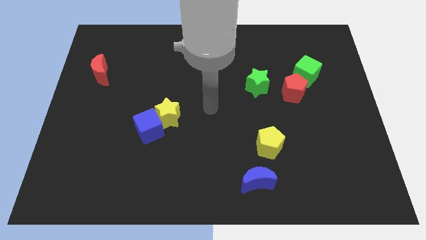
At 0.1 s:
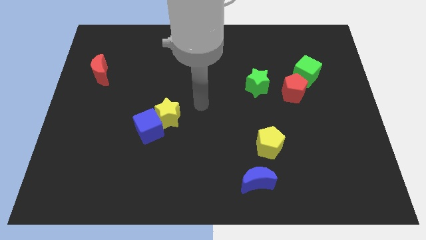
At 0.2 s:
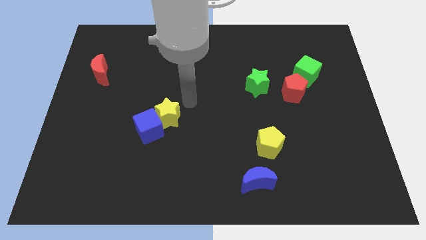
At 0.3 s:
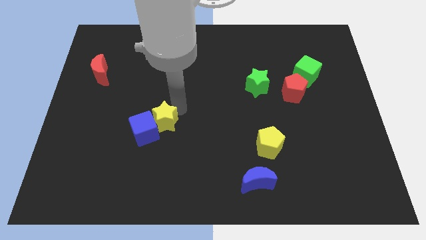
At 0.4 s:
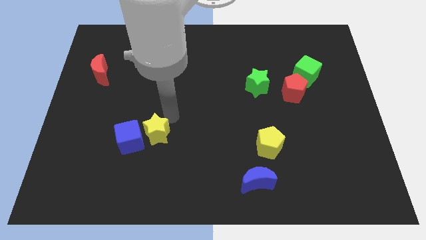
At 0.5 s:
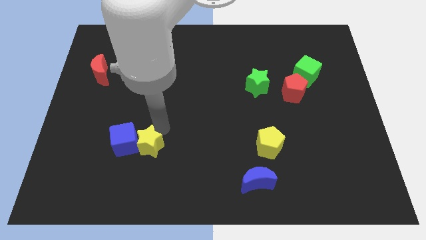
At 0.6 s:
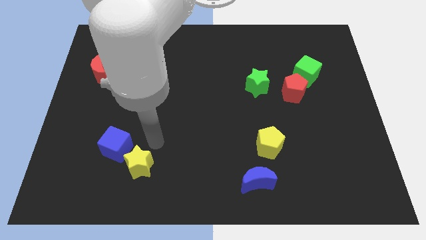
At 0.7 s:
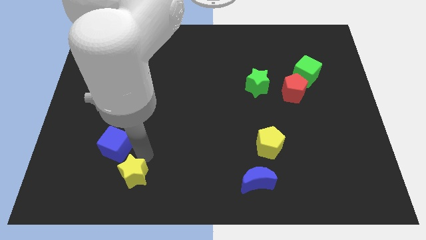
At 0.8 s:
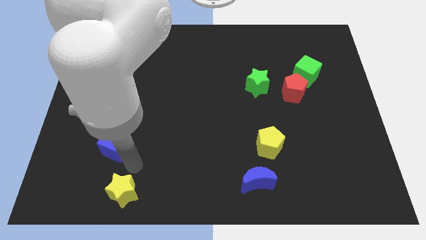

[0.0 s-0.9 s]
pull the blue cube apart from the yellow star

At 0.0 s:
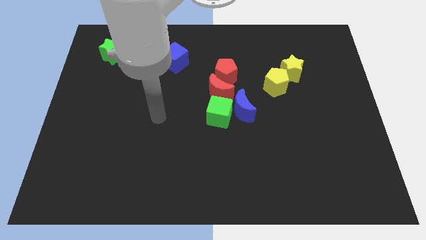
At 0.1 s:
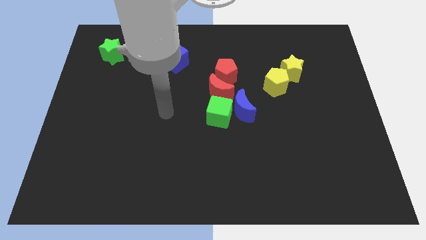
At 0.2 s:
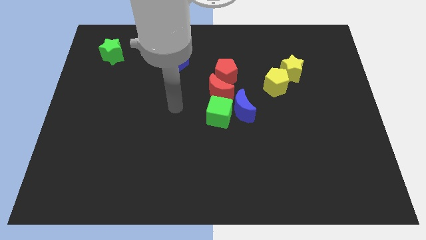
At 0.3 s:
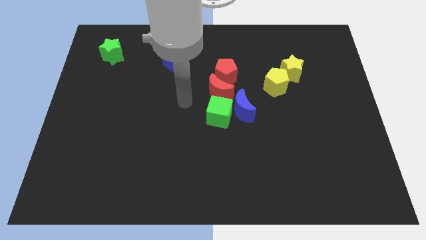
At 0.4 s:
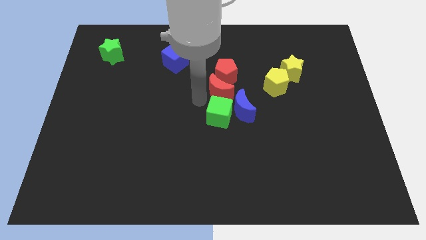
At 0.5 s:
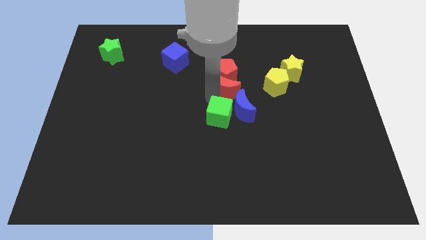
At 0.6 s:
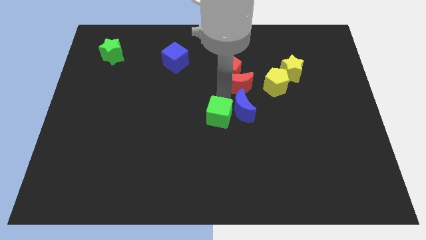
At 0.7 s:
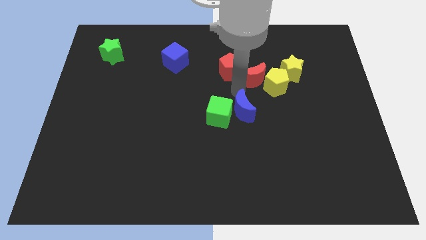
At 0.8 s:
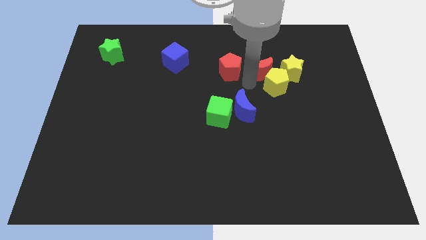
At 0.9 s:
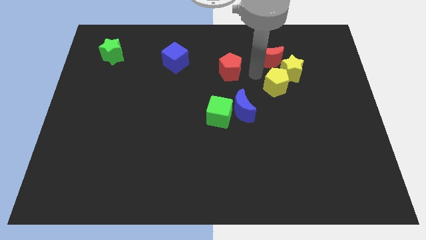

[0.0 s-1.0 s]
pull the red pentagon apart from the red moon

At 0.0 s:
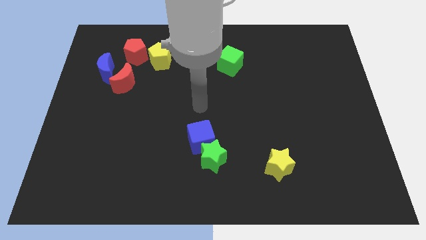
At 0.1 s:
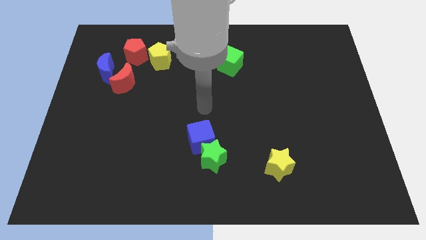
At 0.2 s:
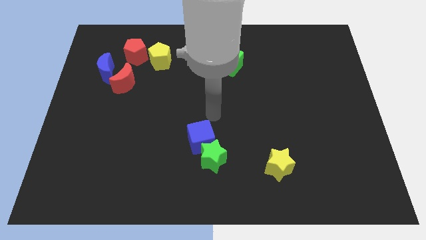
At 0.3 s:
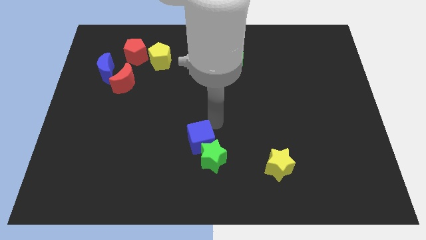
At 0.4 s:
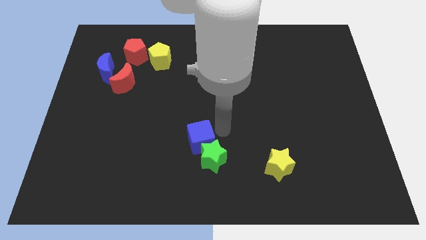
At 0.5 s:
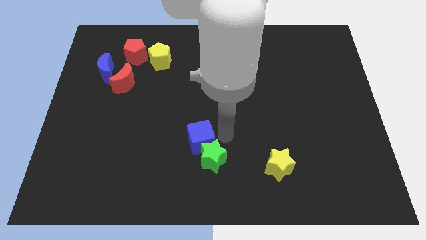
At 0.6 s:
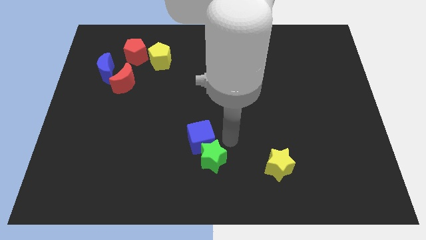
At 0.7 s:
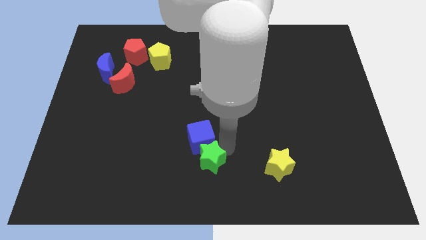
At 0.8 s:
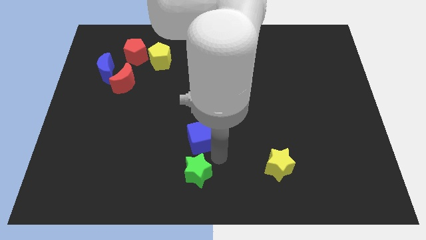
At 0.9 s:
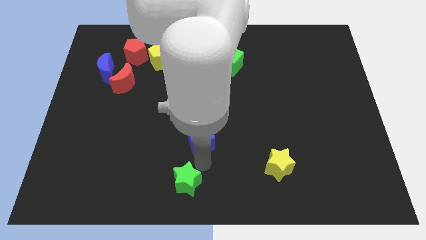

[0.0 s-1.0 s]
move the blue cube away from the green star

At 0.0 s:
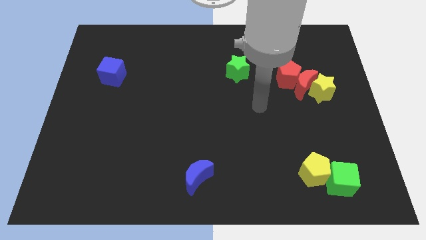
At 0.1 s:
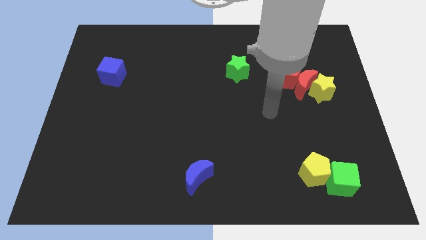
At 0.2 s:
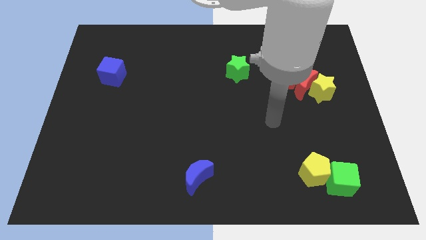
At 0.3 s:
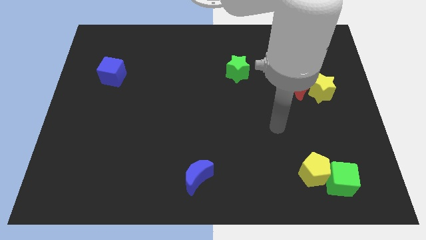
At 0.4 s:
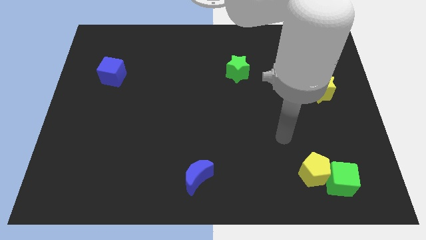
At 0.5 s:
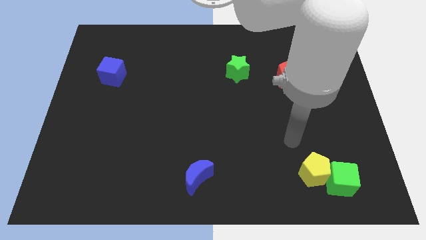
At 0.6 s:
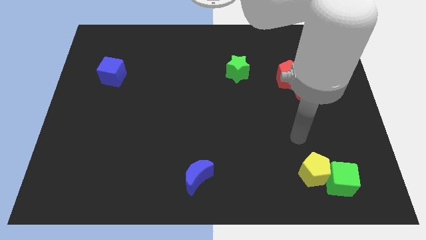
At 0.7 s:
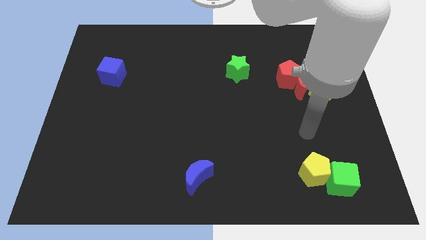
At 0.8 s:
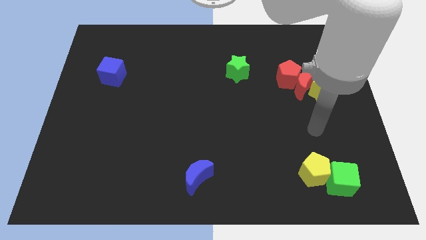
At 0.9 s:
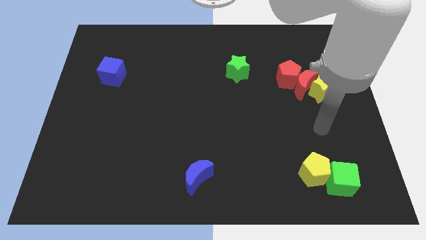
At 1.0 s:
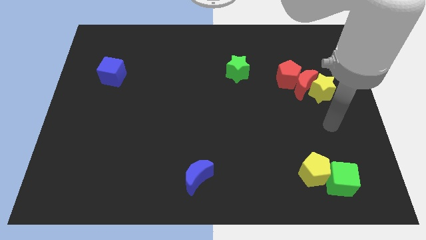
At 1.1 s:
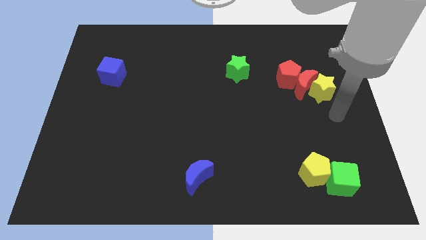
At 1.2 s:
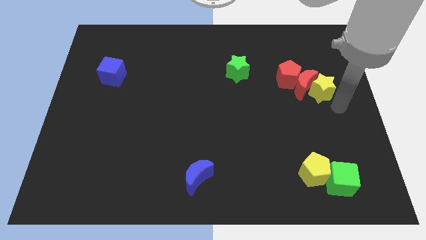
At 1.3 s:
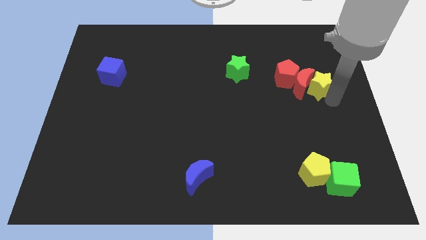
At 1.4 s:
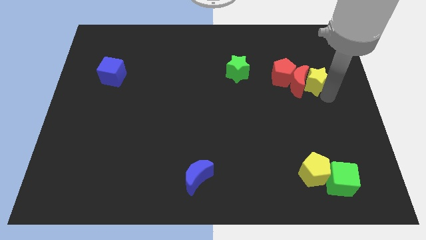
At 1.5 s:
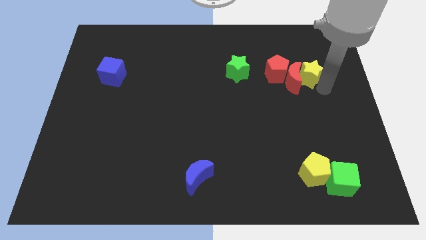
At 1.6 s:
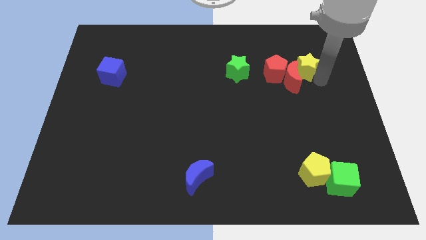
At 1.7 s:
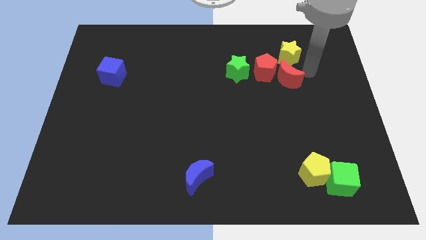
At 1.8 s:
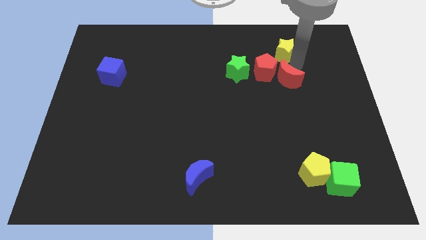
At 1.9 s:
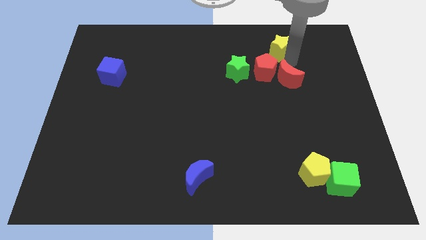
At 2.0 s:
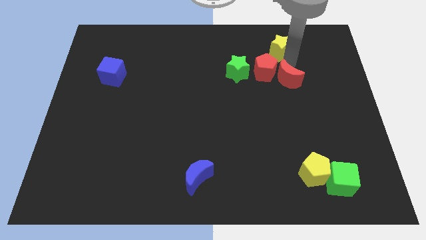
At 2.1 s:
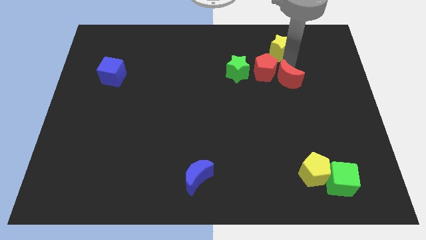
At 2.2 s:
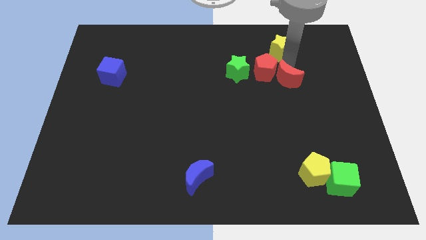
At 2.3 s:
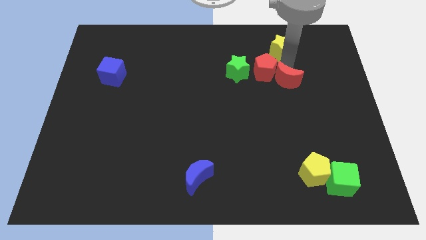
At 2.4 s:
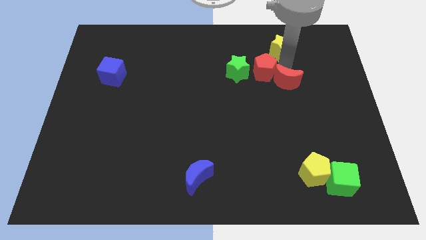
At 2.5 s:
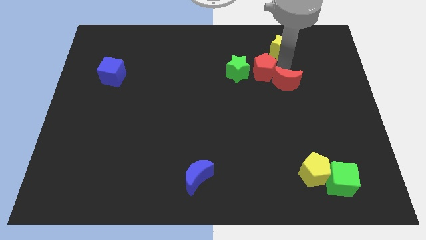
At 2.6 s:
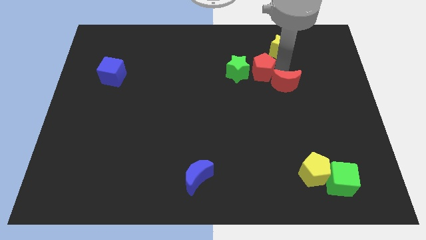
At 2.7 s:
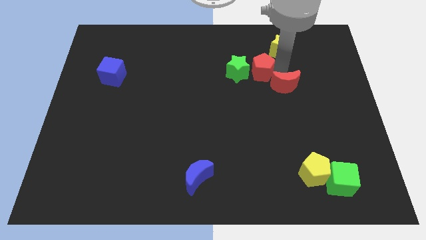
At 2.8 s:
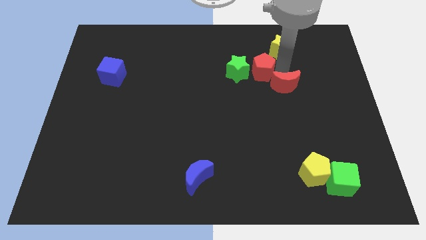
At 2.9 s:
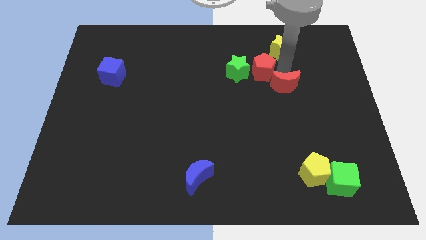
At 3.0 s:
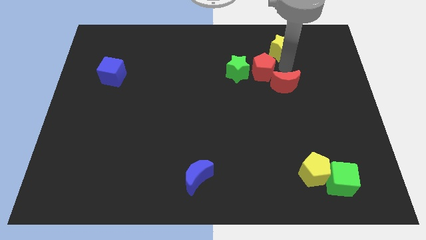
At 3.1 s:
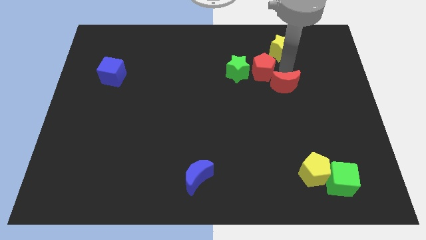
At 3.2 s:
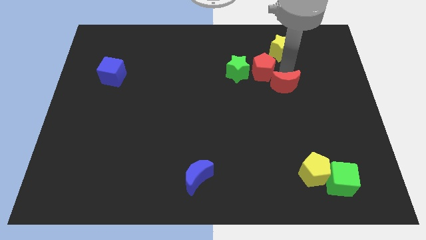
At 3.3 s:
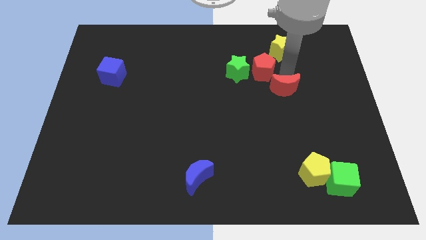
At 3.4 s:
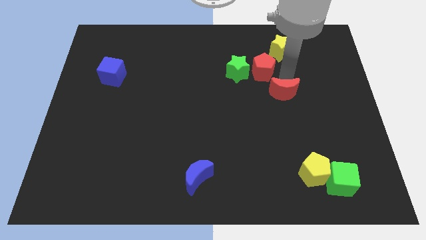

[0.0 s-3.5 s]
separate the red moon from the red pentagon and yellow star

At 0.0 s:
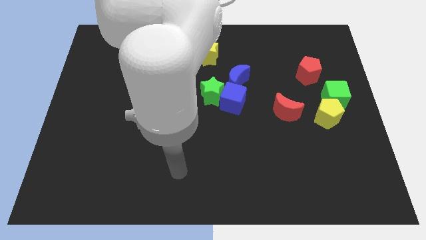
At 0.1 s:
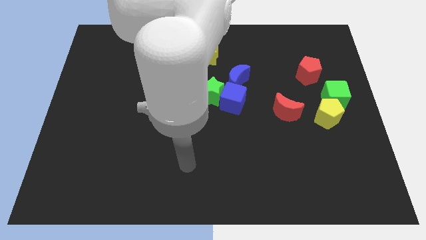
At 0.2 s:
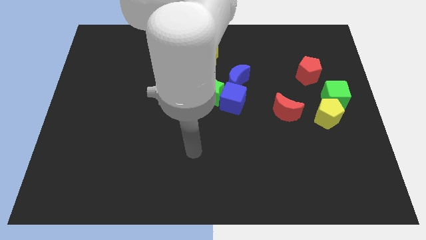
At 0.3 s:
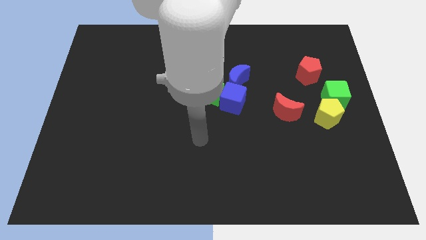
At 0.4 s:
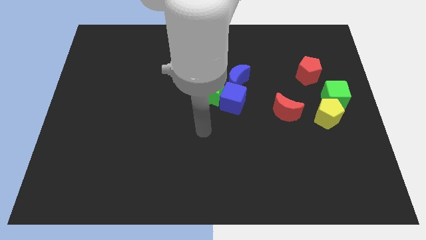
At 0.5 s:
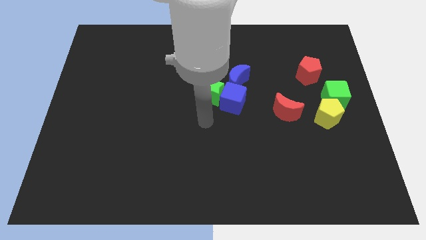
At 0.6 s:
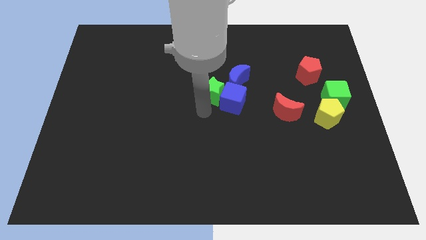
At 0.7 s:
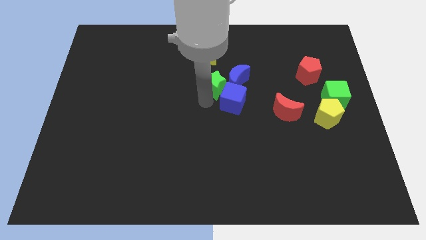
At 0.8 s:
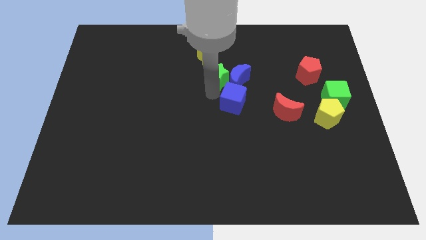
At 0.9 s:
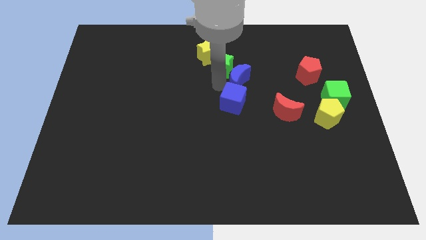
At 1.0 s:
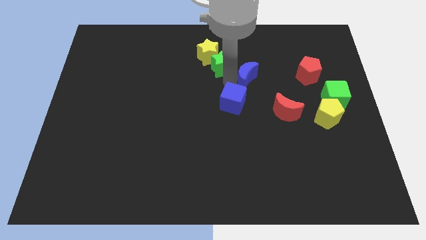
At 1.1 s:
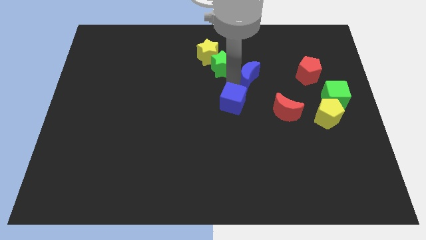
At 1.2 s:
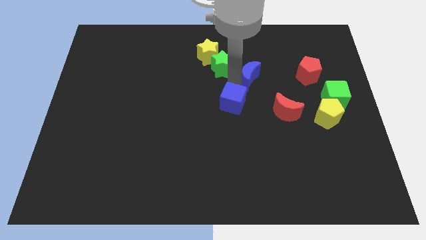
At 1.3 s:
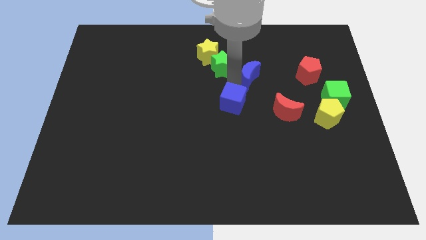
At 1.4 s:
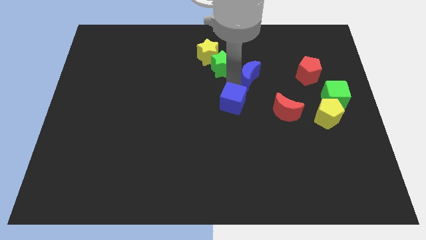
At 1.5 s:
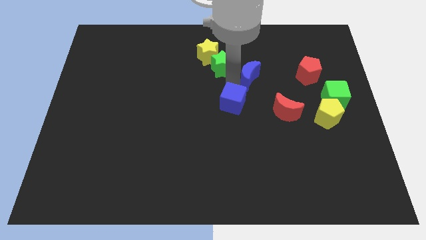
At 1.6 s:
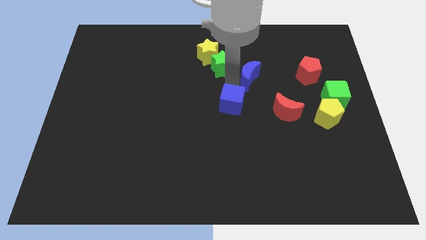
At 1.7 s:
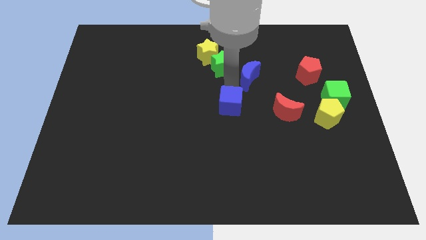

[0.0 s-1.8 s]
move the blue cube away from the green star and blue moon

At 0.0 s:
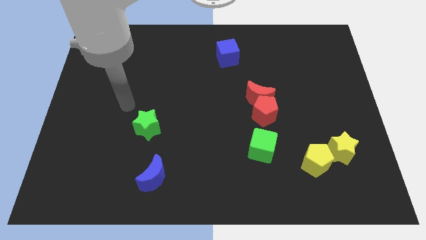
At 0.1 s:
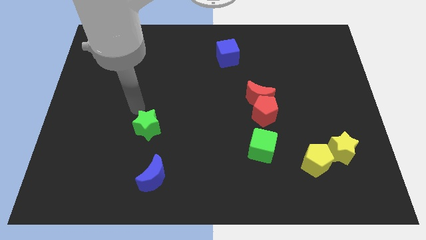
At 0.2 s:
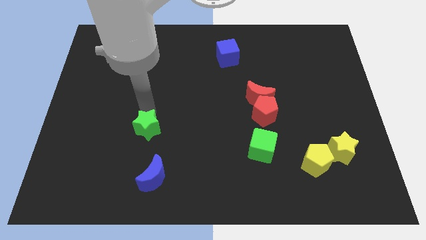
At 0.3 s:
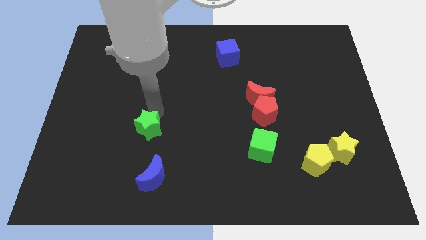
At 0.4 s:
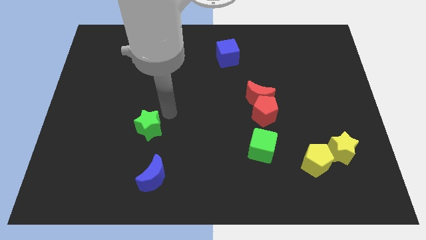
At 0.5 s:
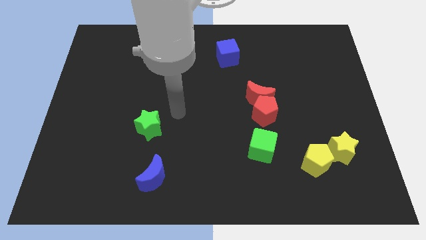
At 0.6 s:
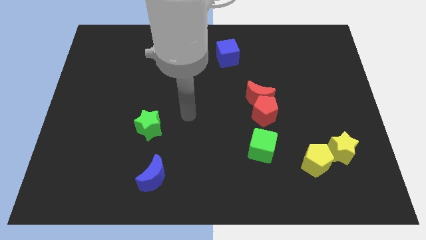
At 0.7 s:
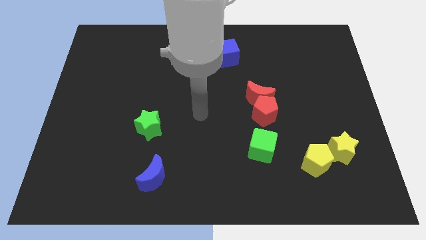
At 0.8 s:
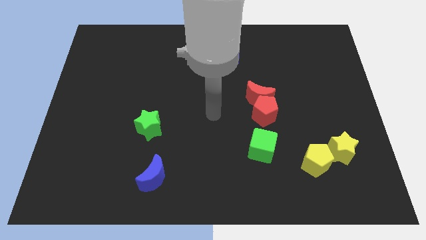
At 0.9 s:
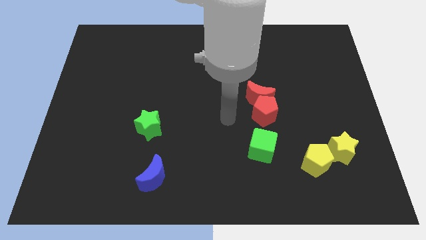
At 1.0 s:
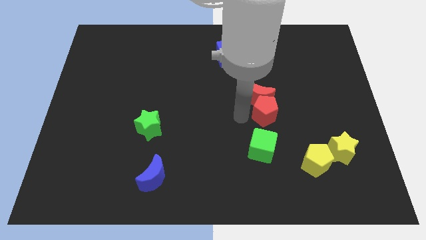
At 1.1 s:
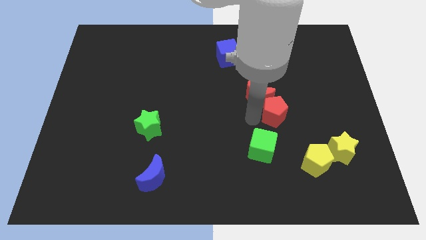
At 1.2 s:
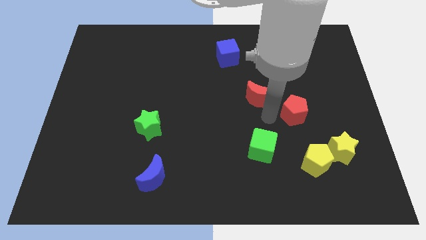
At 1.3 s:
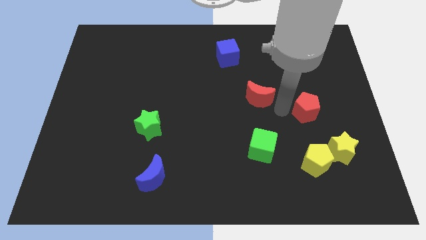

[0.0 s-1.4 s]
move the red moon away from the red pentagon
